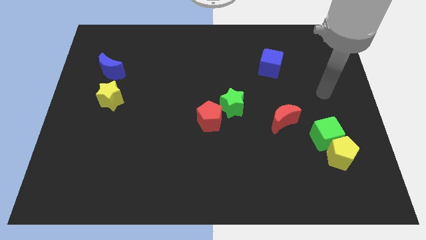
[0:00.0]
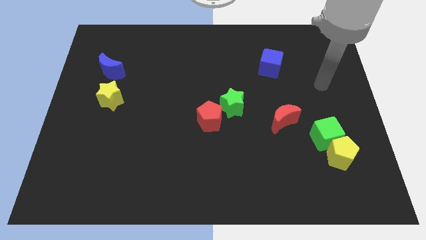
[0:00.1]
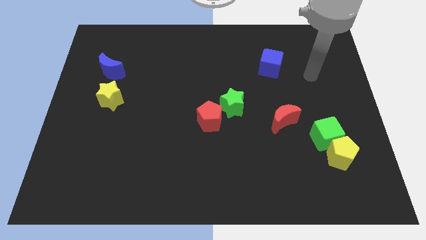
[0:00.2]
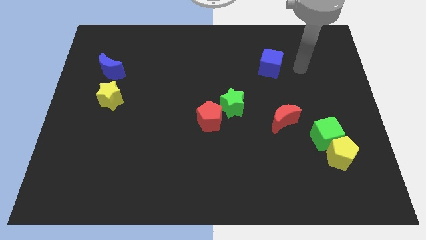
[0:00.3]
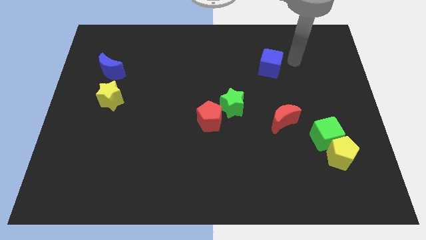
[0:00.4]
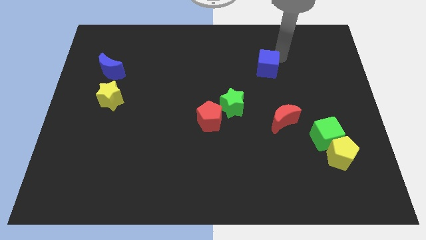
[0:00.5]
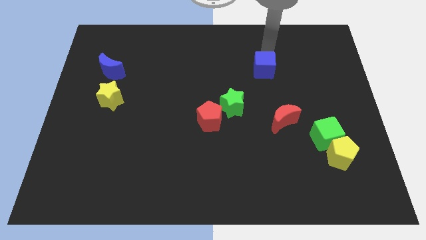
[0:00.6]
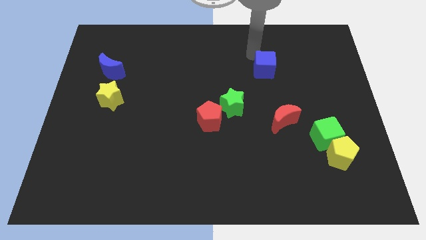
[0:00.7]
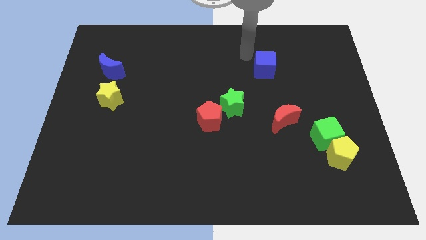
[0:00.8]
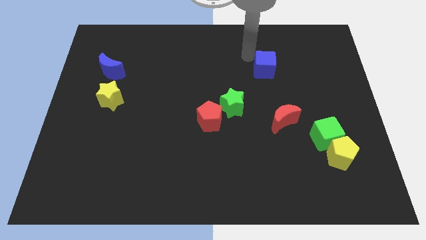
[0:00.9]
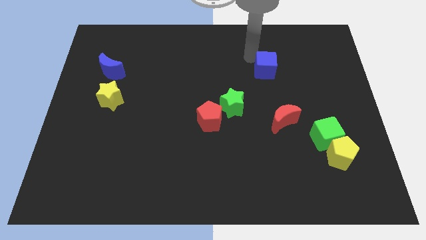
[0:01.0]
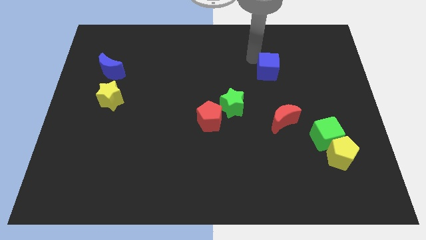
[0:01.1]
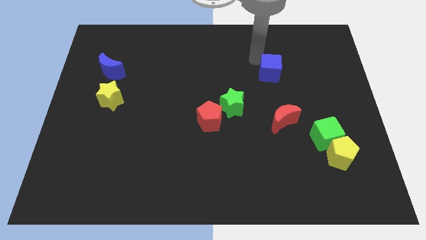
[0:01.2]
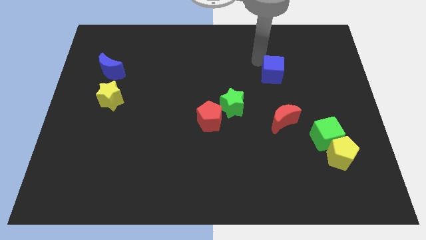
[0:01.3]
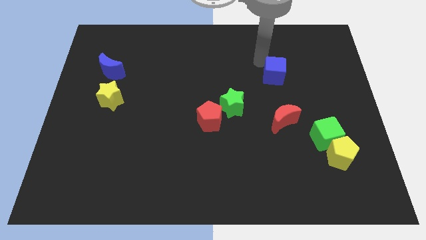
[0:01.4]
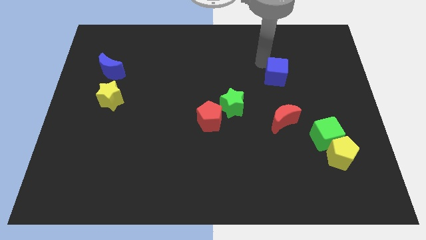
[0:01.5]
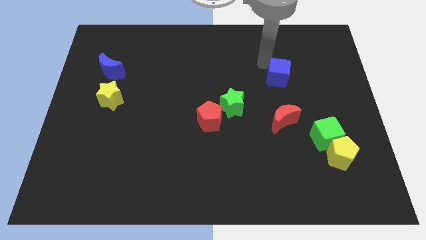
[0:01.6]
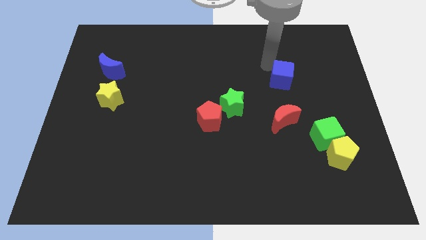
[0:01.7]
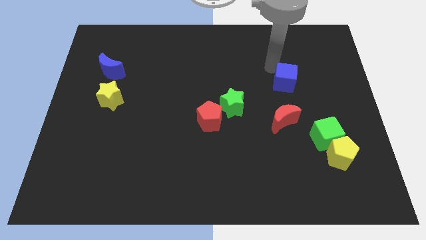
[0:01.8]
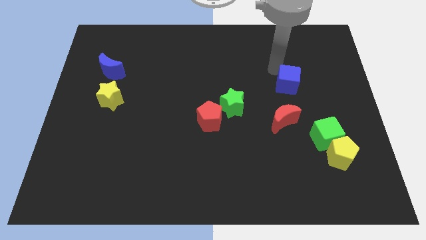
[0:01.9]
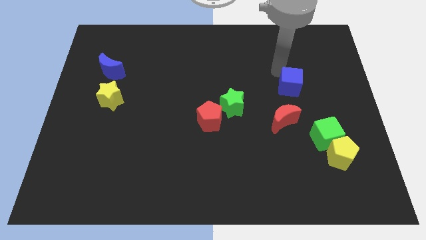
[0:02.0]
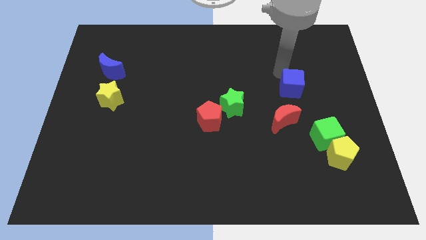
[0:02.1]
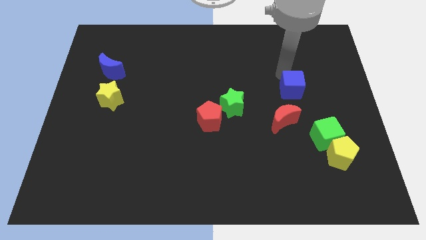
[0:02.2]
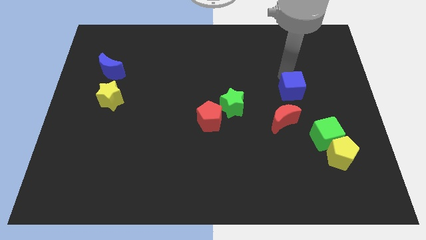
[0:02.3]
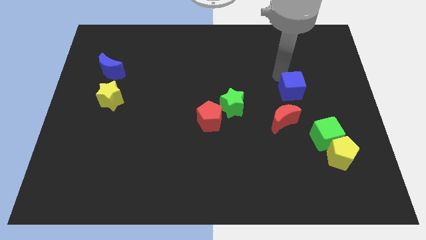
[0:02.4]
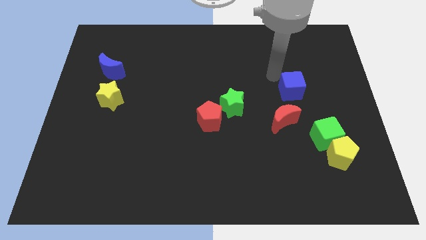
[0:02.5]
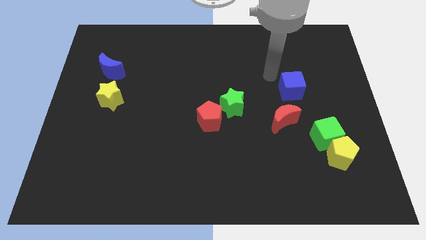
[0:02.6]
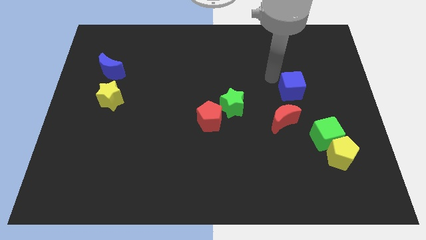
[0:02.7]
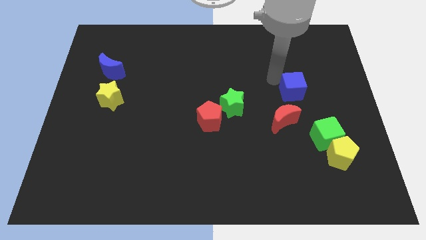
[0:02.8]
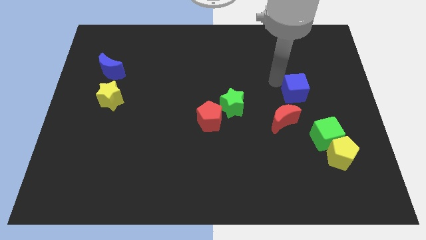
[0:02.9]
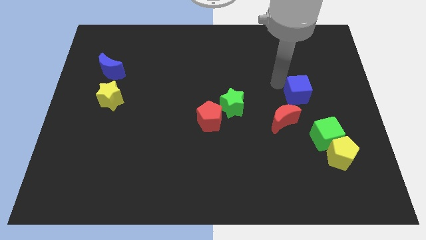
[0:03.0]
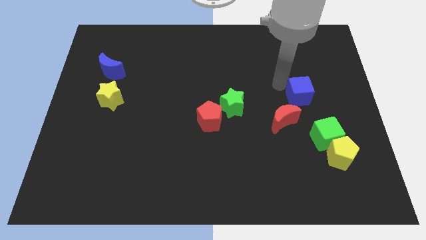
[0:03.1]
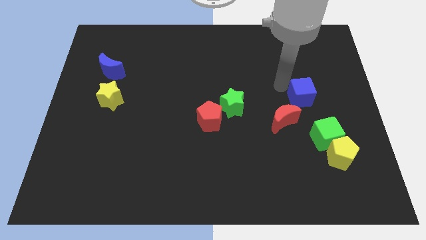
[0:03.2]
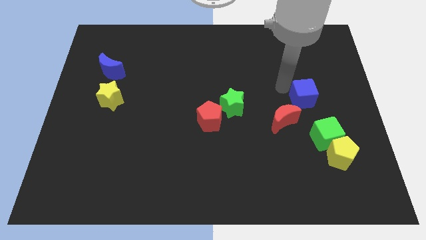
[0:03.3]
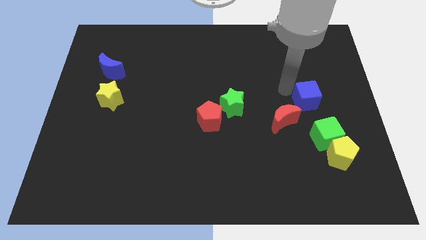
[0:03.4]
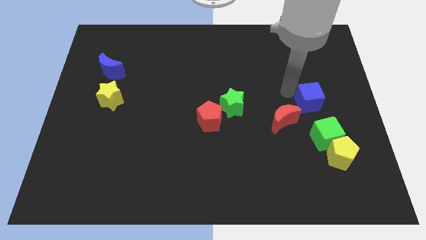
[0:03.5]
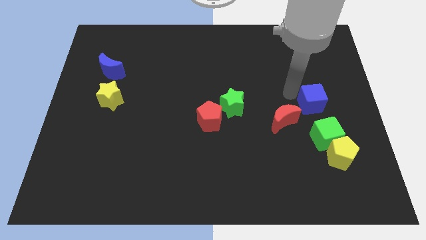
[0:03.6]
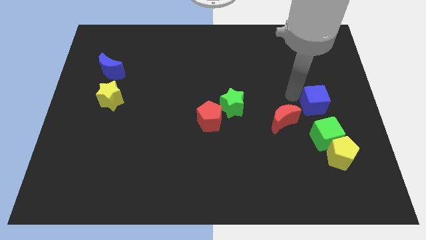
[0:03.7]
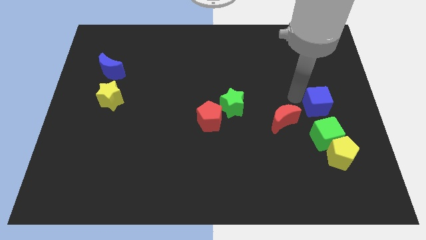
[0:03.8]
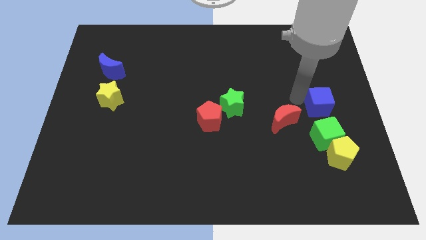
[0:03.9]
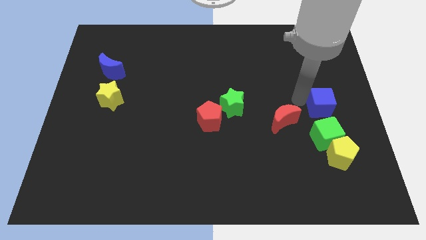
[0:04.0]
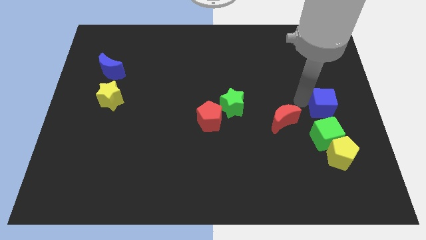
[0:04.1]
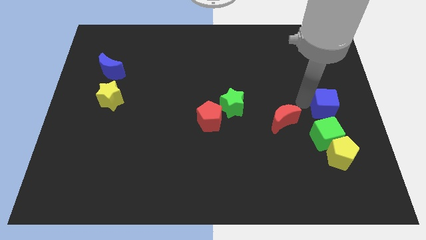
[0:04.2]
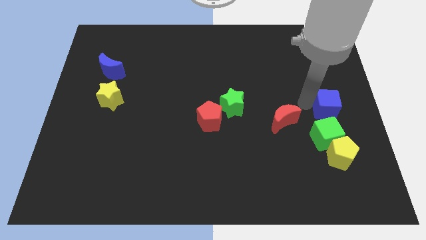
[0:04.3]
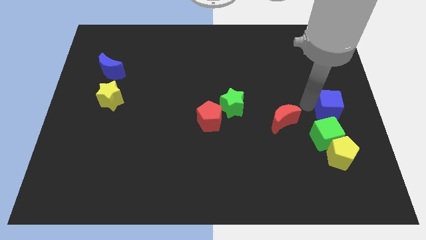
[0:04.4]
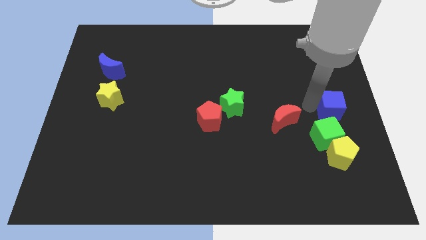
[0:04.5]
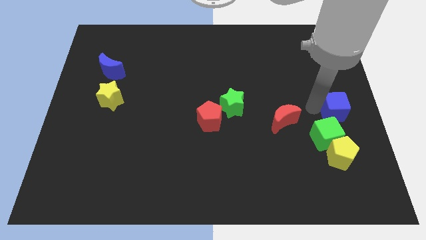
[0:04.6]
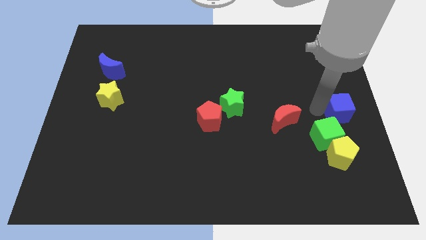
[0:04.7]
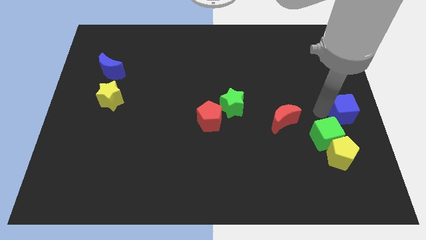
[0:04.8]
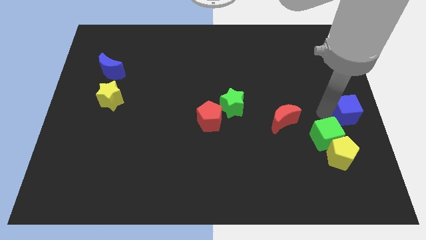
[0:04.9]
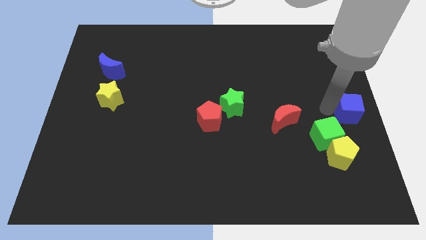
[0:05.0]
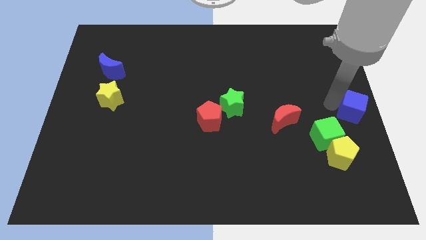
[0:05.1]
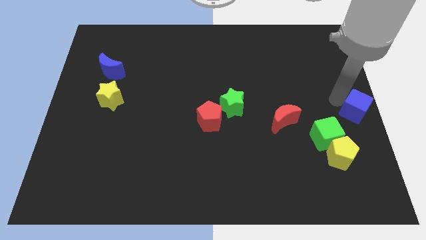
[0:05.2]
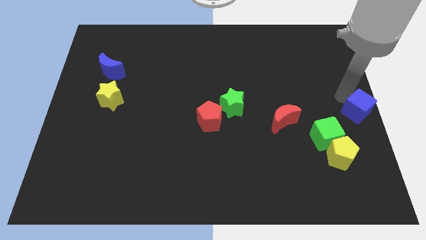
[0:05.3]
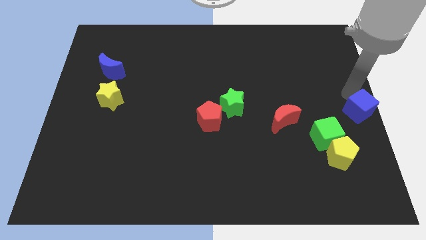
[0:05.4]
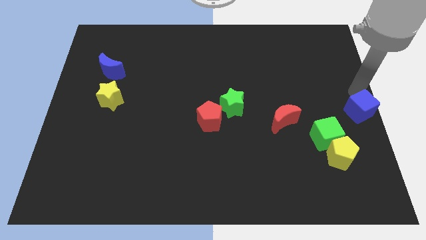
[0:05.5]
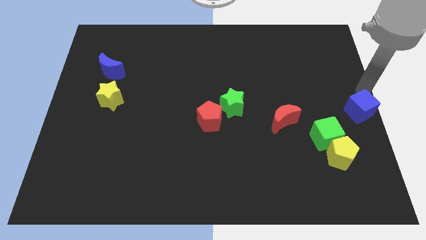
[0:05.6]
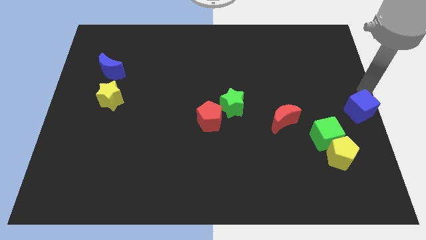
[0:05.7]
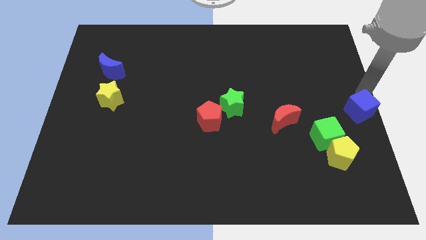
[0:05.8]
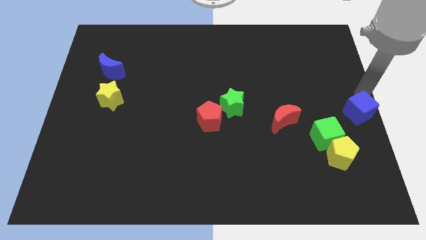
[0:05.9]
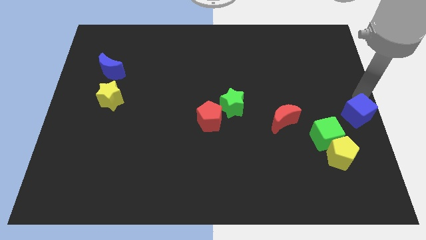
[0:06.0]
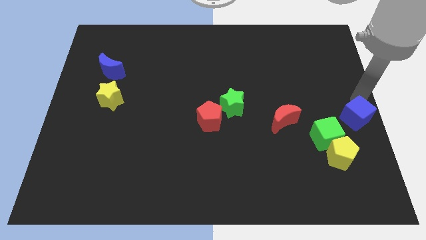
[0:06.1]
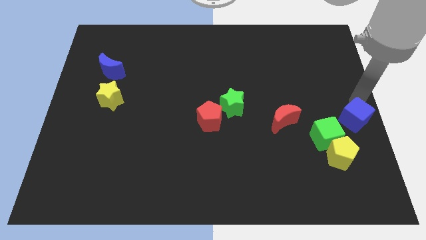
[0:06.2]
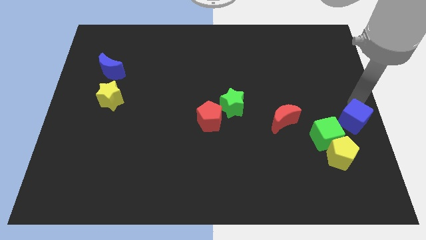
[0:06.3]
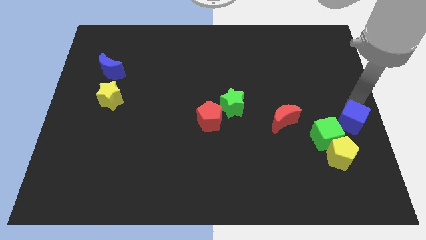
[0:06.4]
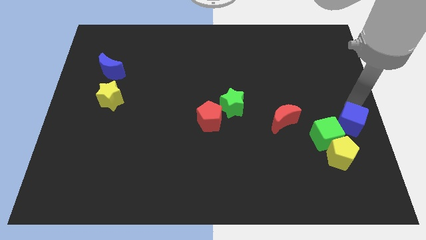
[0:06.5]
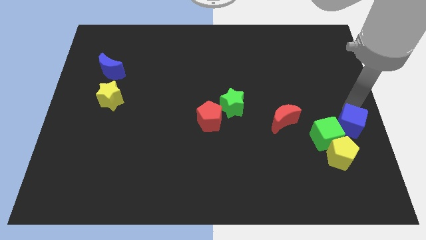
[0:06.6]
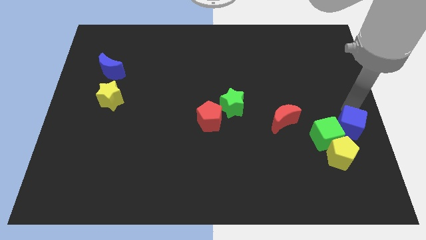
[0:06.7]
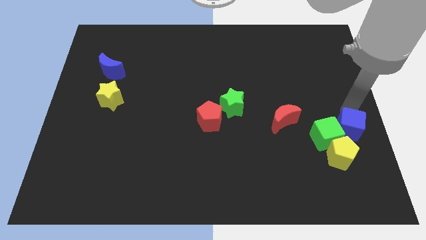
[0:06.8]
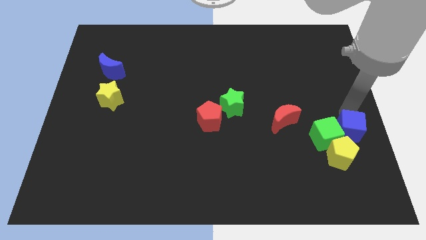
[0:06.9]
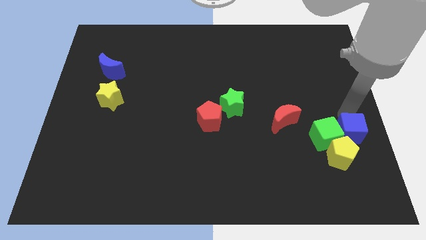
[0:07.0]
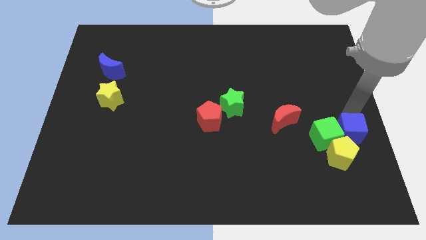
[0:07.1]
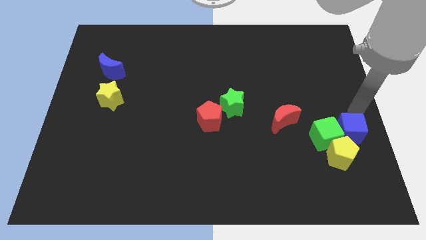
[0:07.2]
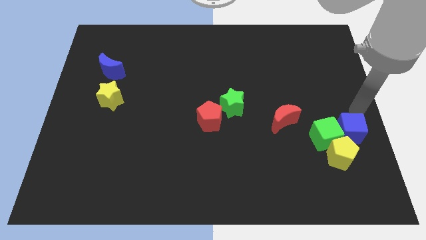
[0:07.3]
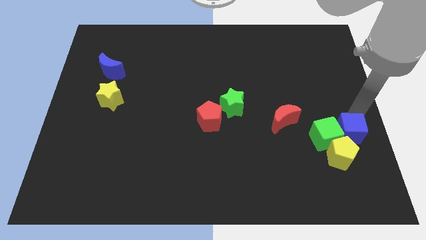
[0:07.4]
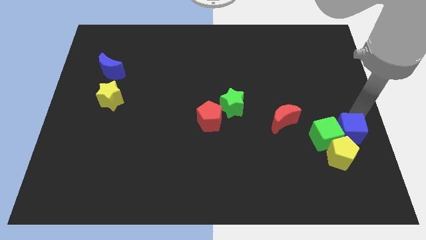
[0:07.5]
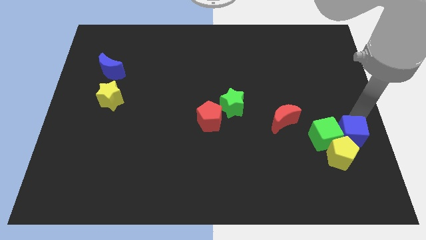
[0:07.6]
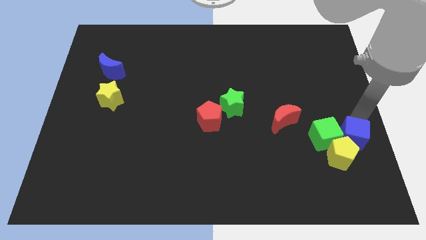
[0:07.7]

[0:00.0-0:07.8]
put the blue cube next to the yellow pentagon

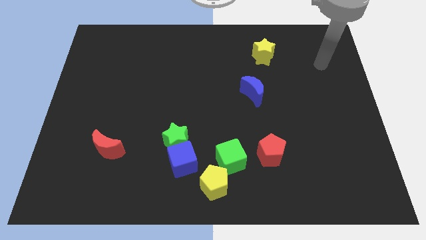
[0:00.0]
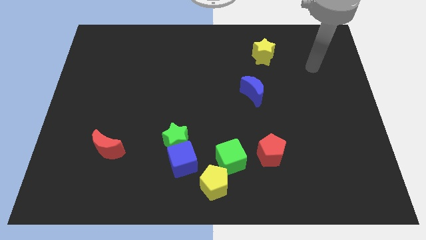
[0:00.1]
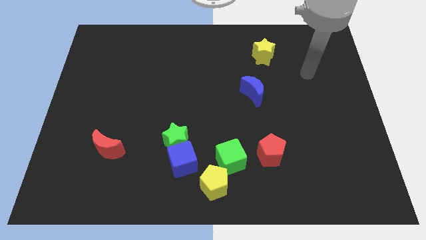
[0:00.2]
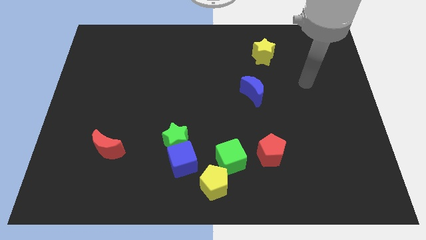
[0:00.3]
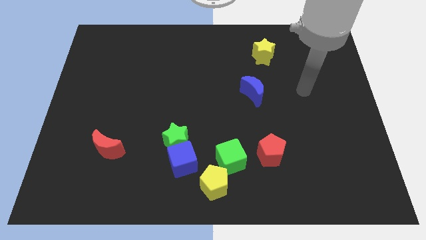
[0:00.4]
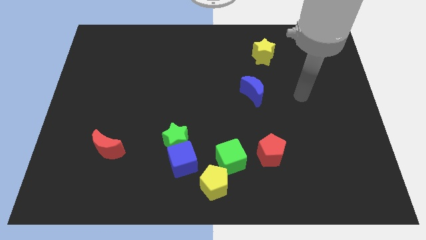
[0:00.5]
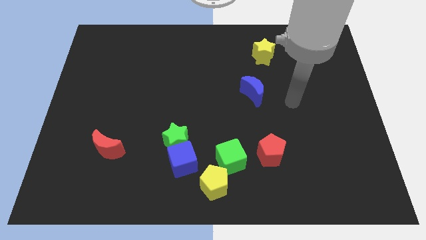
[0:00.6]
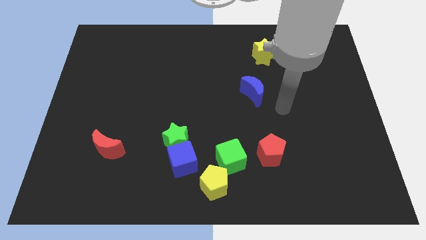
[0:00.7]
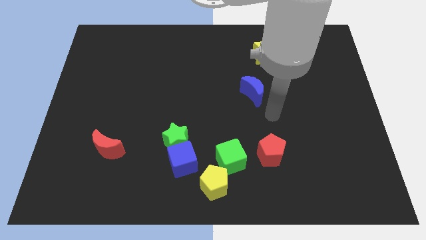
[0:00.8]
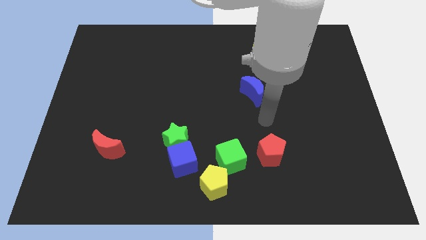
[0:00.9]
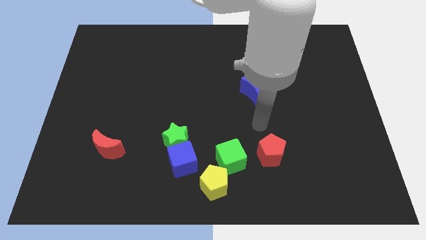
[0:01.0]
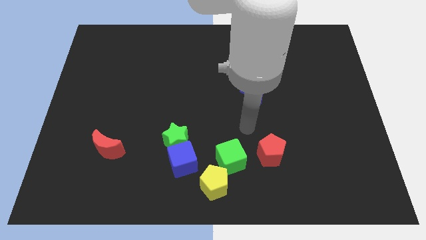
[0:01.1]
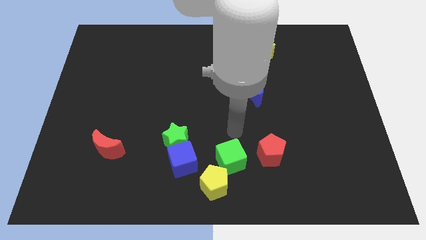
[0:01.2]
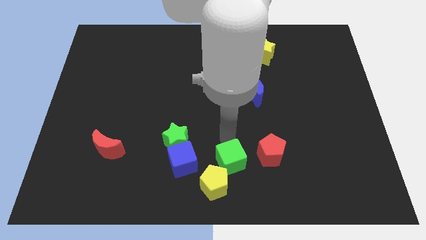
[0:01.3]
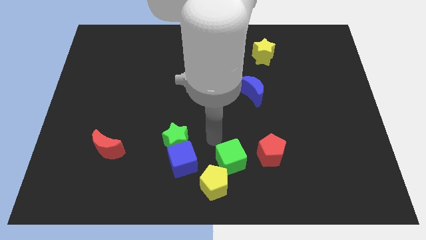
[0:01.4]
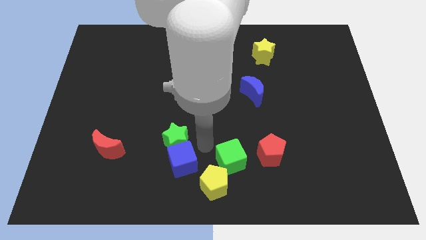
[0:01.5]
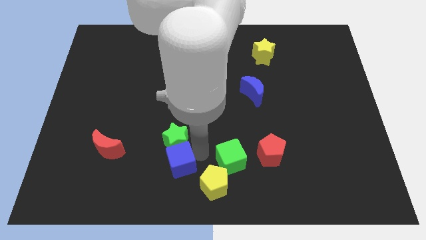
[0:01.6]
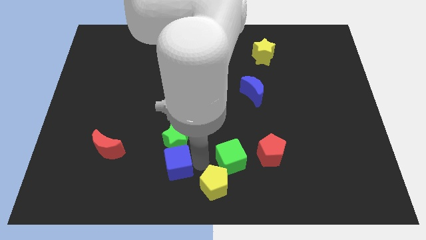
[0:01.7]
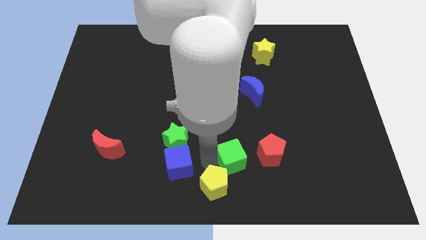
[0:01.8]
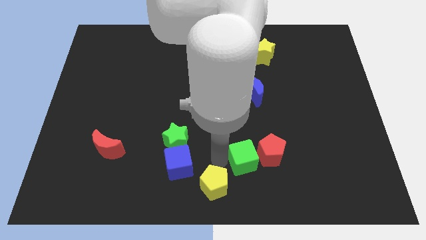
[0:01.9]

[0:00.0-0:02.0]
slide the green cube next to the red pentagon
